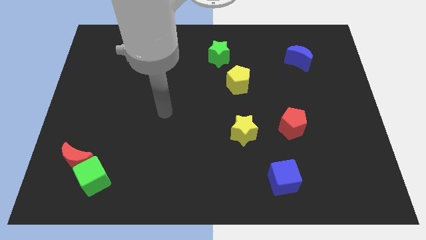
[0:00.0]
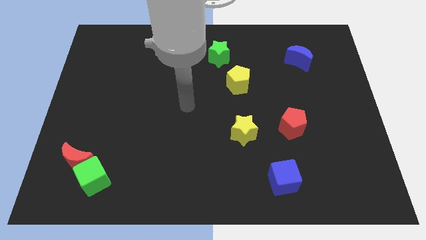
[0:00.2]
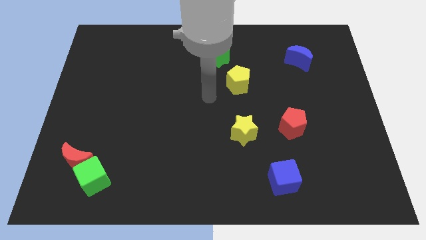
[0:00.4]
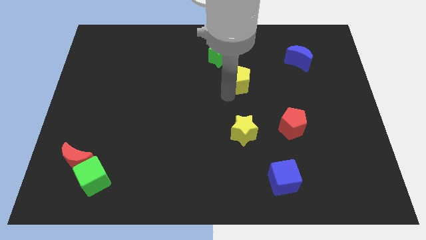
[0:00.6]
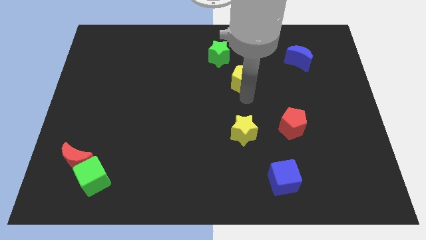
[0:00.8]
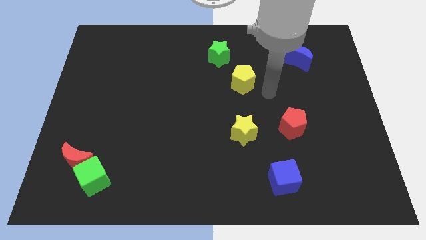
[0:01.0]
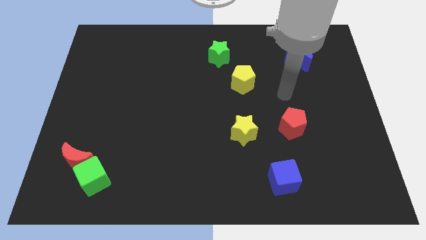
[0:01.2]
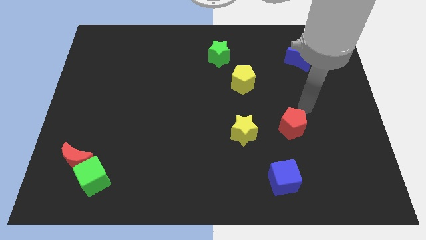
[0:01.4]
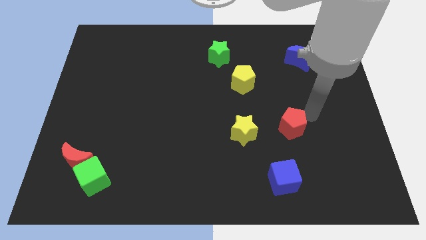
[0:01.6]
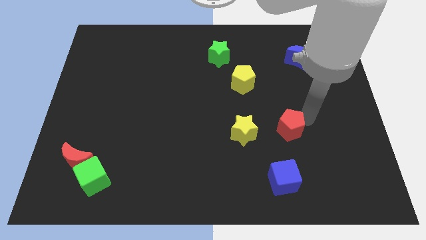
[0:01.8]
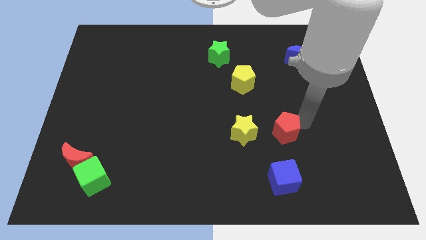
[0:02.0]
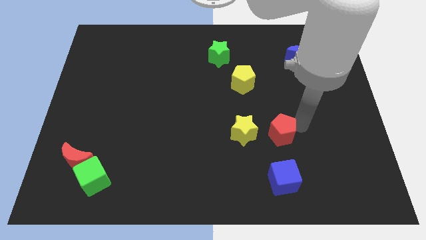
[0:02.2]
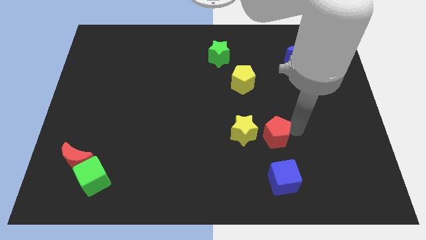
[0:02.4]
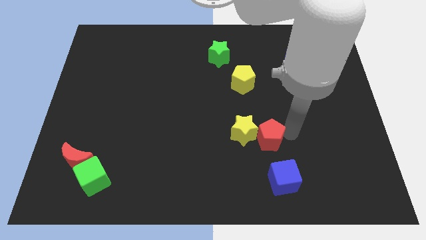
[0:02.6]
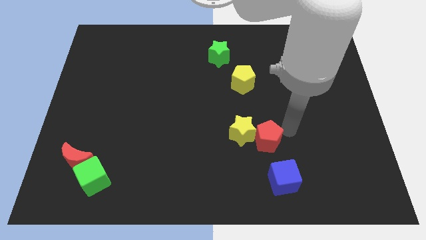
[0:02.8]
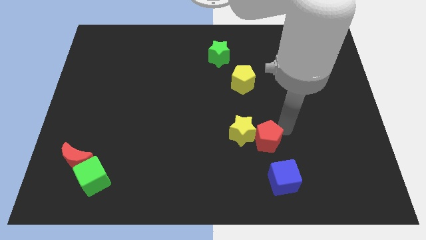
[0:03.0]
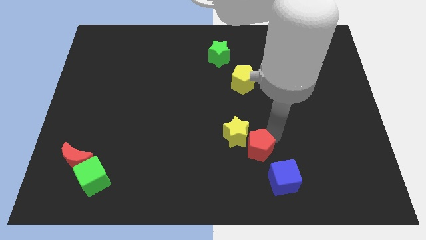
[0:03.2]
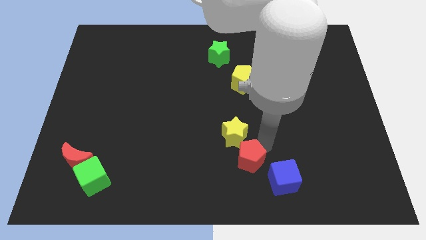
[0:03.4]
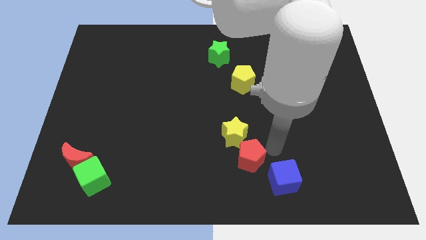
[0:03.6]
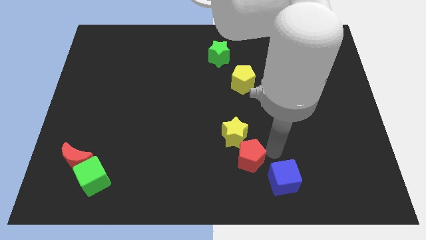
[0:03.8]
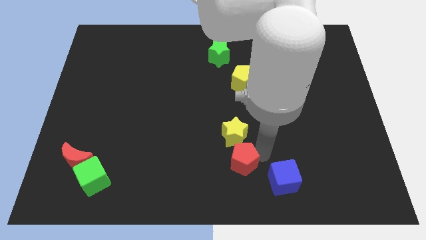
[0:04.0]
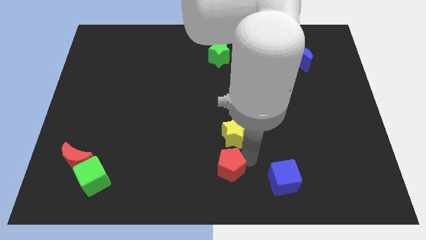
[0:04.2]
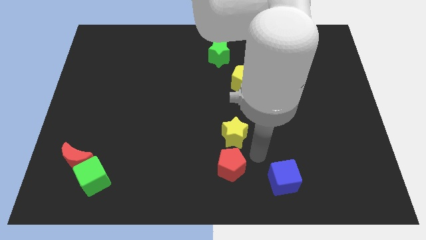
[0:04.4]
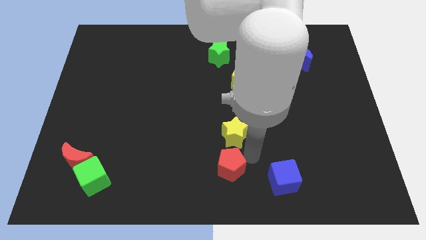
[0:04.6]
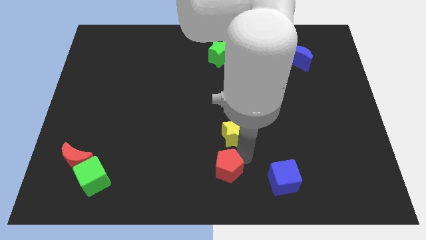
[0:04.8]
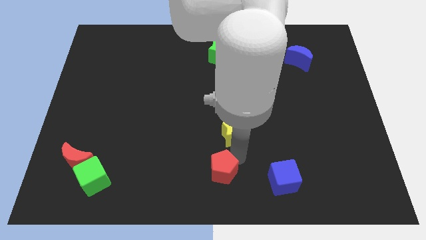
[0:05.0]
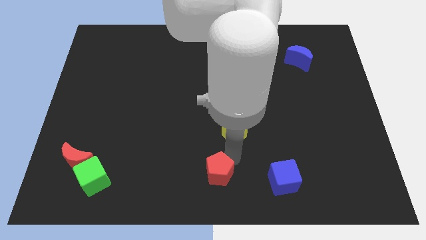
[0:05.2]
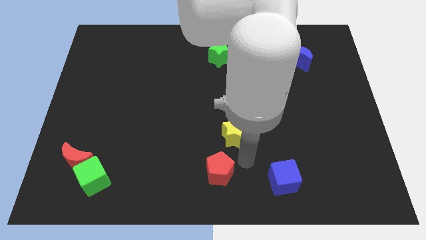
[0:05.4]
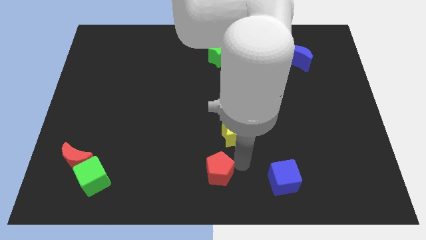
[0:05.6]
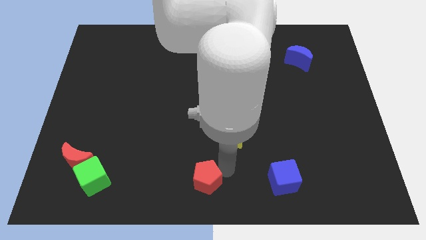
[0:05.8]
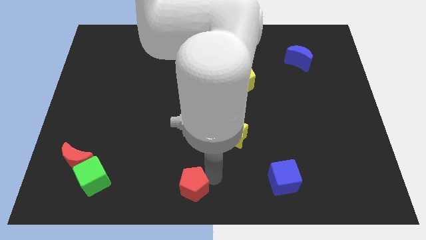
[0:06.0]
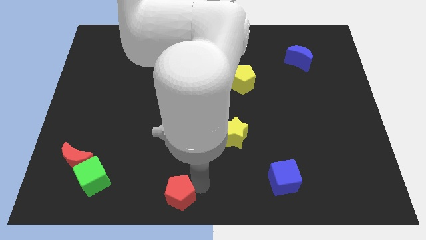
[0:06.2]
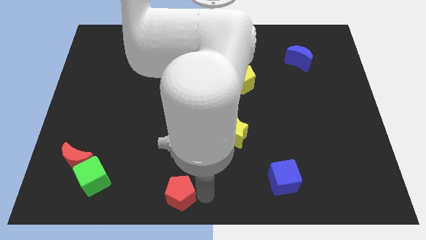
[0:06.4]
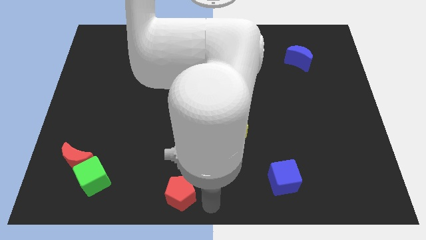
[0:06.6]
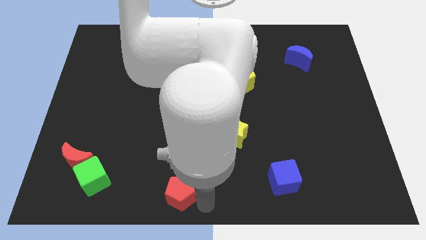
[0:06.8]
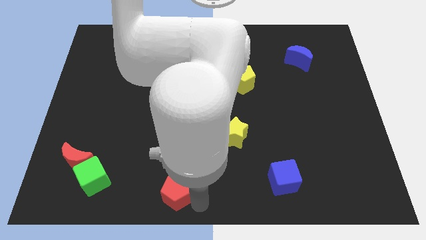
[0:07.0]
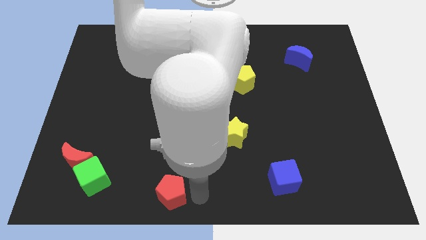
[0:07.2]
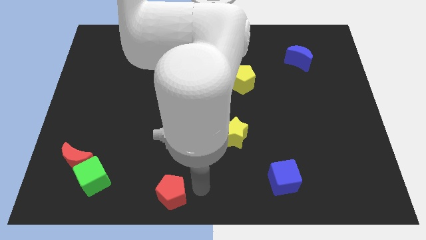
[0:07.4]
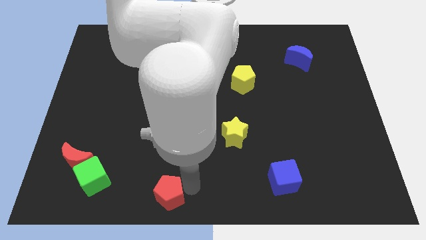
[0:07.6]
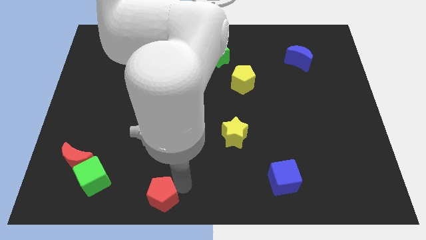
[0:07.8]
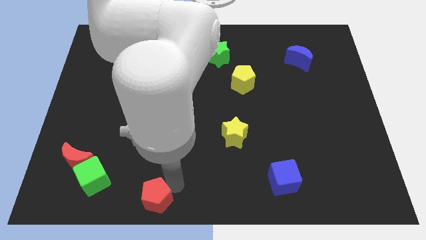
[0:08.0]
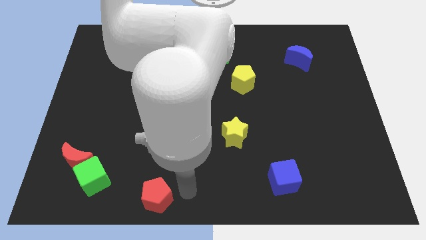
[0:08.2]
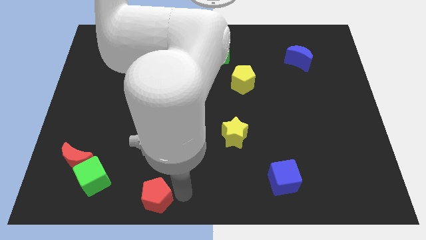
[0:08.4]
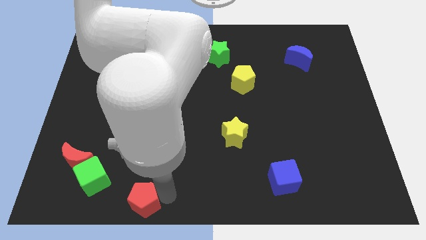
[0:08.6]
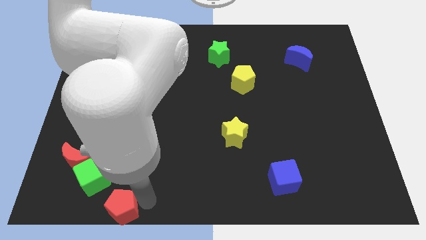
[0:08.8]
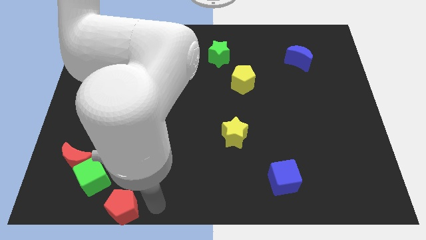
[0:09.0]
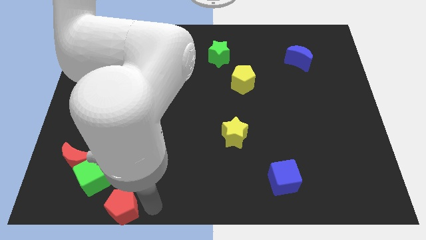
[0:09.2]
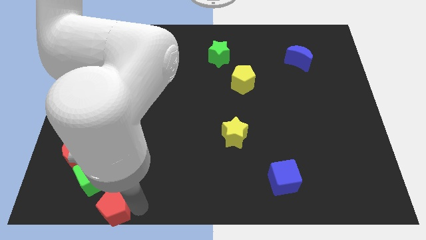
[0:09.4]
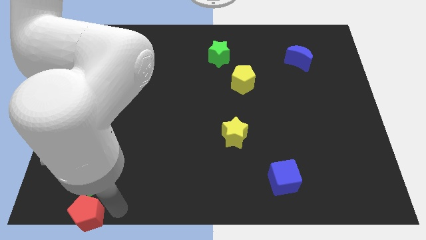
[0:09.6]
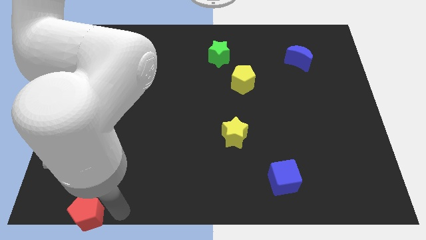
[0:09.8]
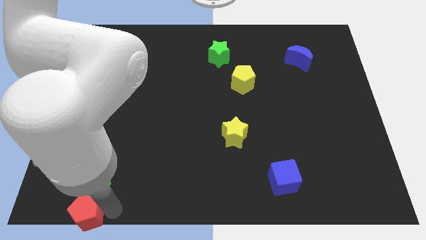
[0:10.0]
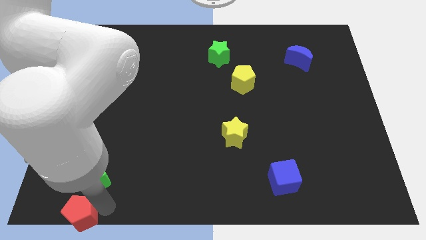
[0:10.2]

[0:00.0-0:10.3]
push the red pentagon to the bottom left
